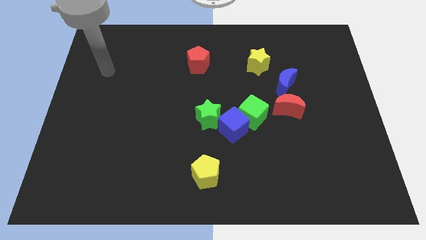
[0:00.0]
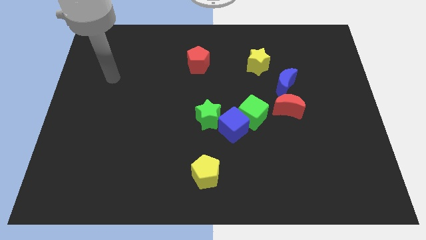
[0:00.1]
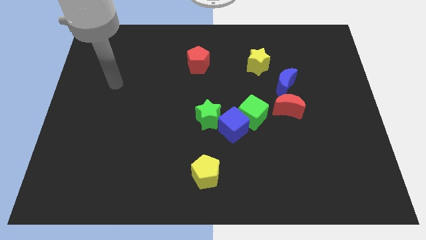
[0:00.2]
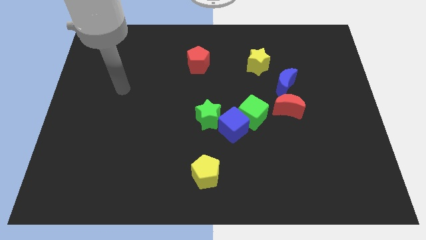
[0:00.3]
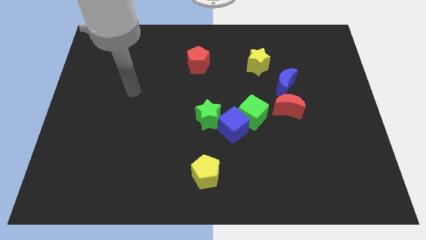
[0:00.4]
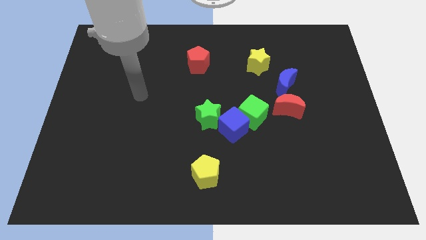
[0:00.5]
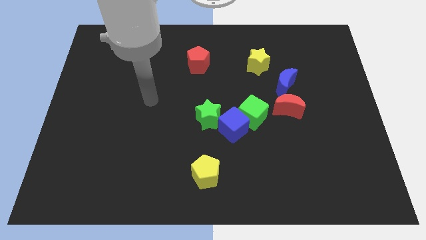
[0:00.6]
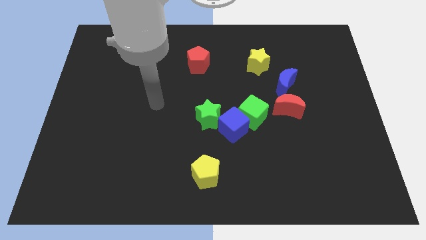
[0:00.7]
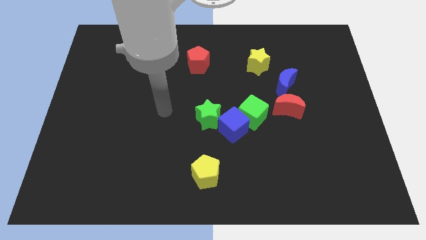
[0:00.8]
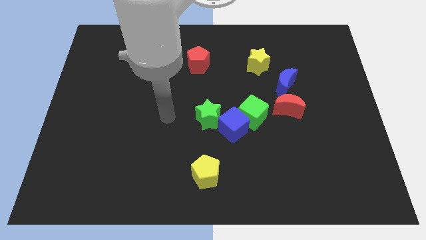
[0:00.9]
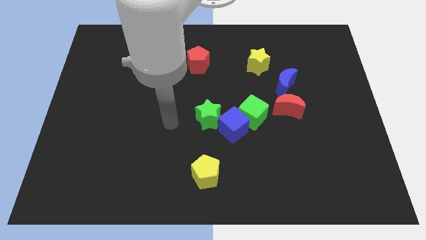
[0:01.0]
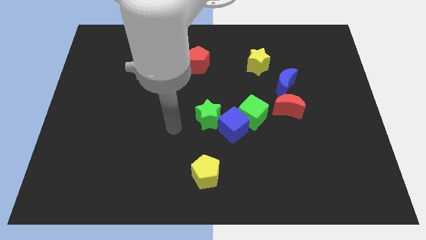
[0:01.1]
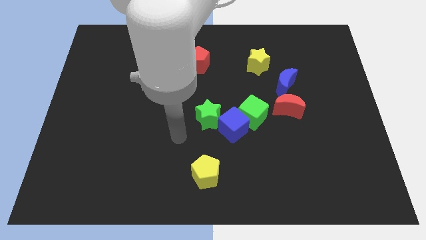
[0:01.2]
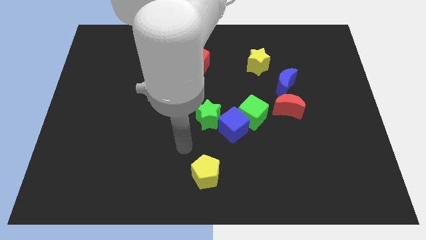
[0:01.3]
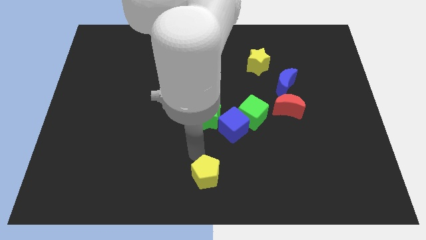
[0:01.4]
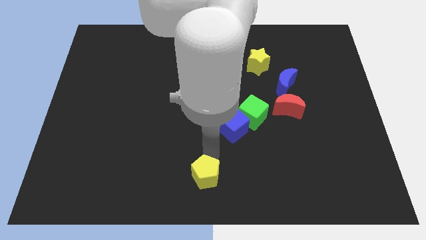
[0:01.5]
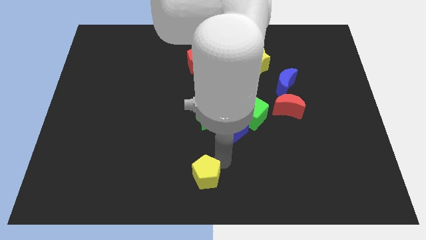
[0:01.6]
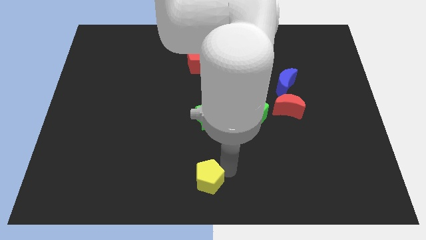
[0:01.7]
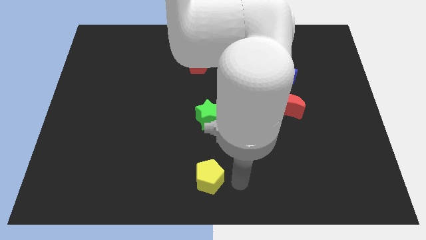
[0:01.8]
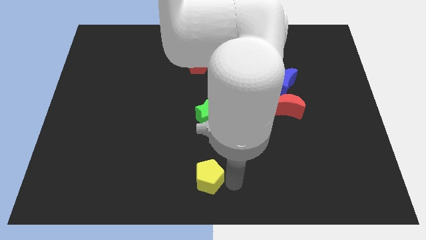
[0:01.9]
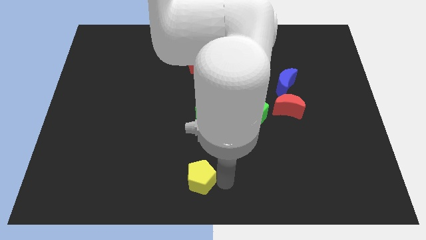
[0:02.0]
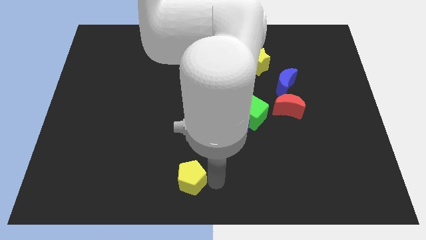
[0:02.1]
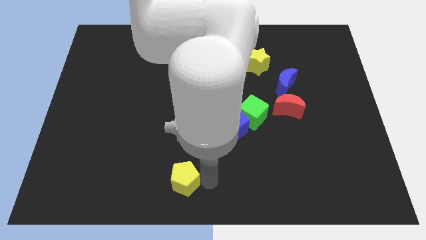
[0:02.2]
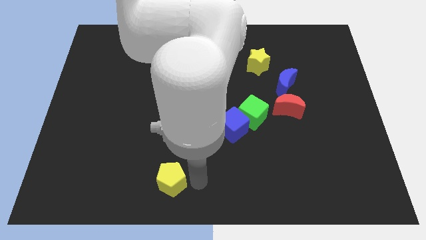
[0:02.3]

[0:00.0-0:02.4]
move the yellow pentagon a little left

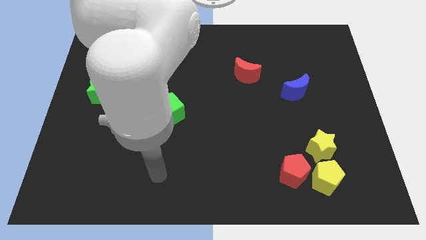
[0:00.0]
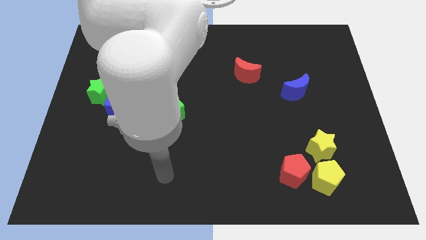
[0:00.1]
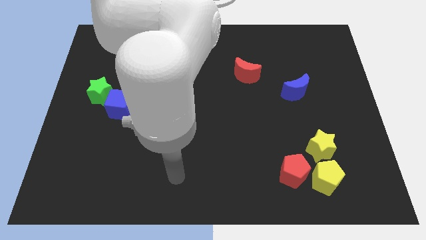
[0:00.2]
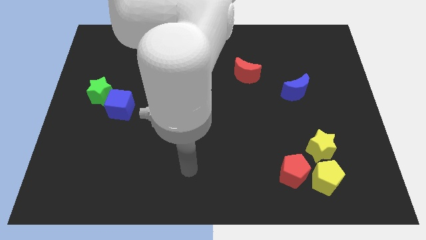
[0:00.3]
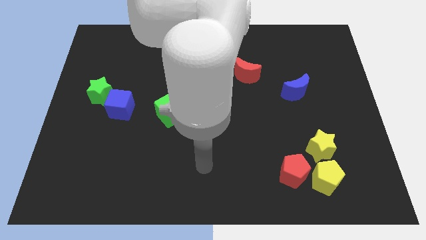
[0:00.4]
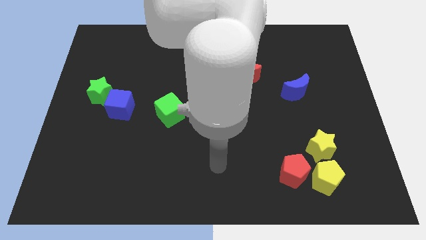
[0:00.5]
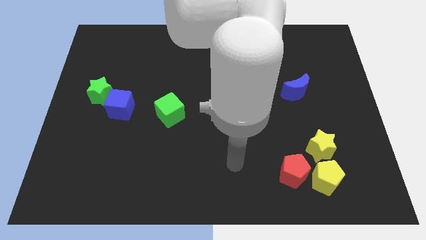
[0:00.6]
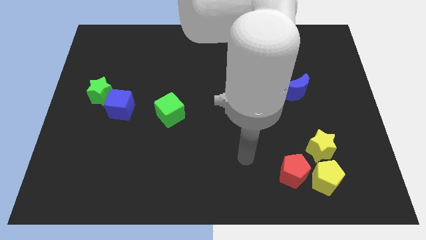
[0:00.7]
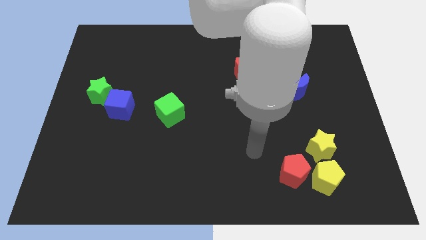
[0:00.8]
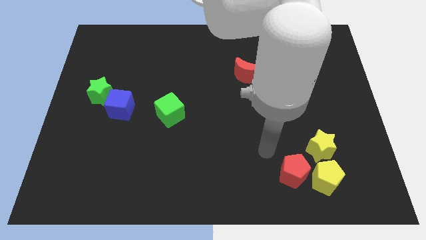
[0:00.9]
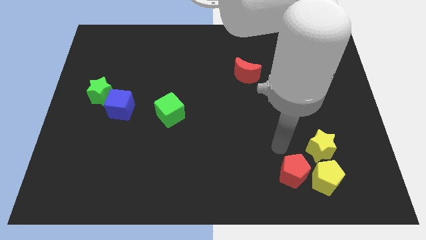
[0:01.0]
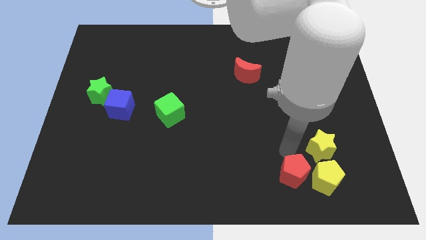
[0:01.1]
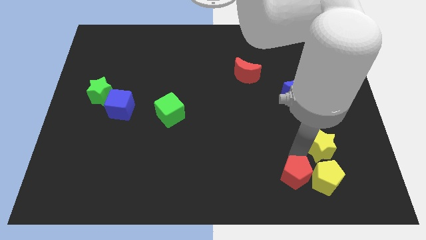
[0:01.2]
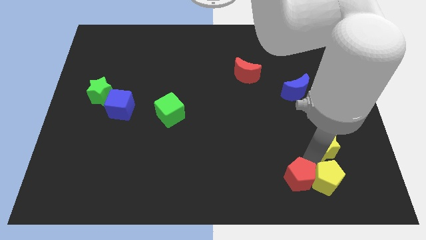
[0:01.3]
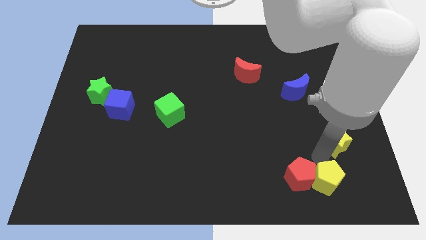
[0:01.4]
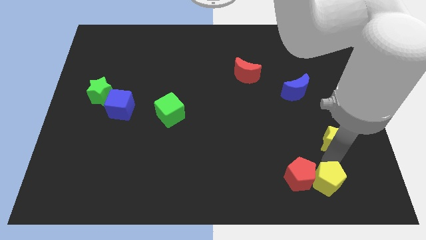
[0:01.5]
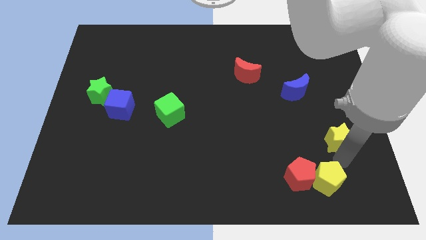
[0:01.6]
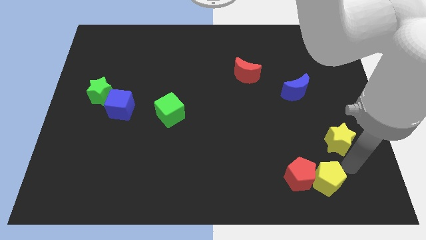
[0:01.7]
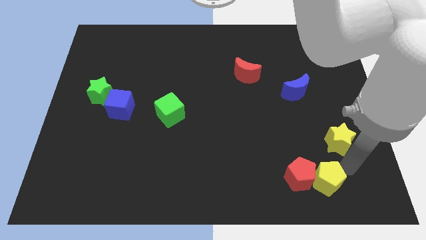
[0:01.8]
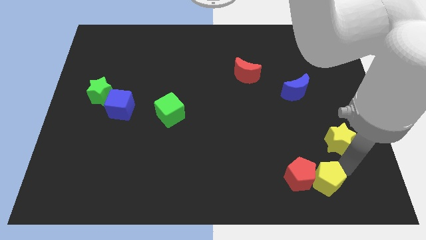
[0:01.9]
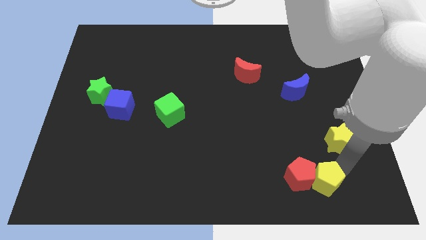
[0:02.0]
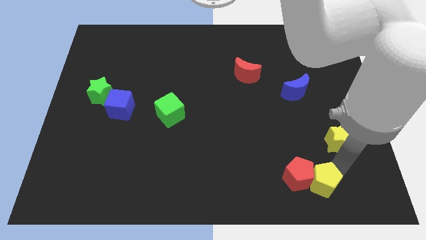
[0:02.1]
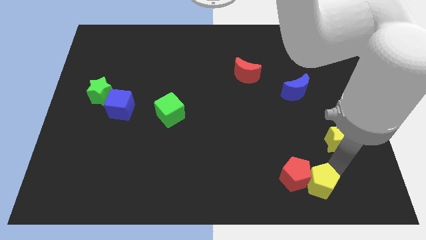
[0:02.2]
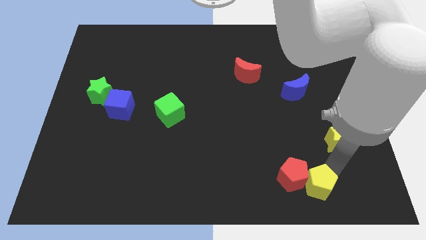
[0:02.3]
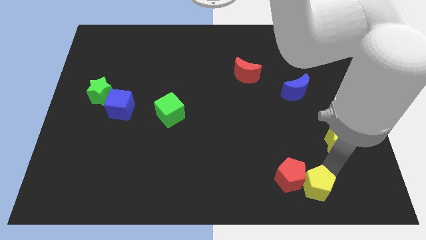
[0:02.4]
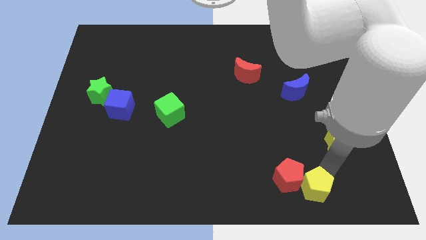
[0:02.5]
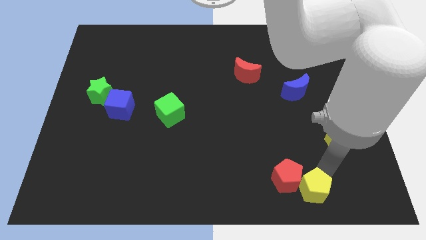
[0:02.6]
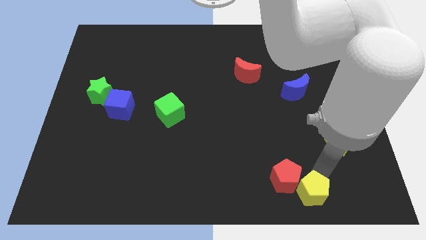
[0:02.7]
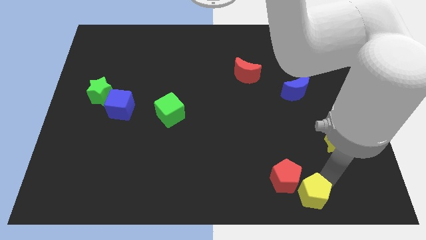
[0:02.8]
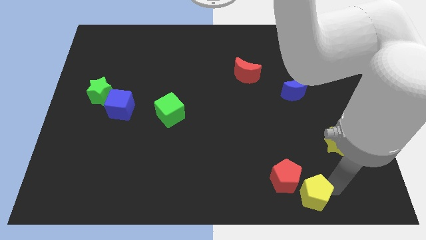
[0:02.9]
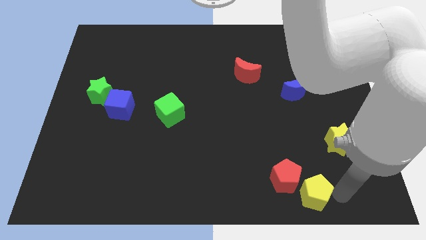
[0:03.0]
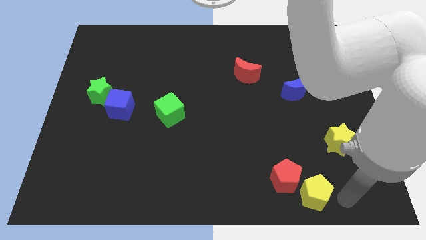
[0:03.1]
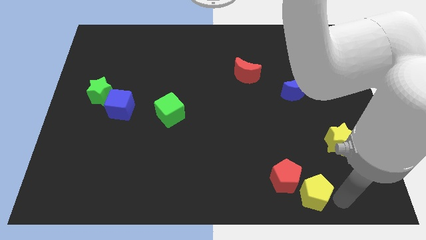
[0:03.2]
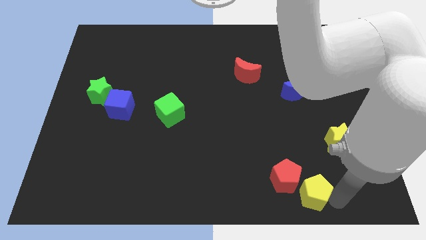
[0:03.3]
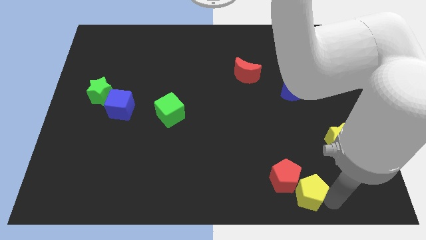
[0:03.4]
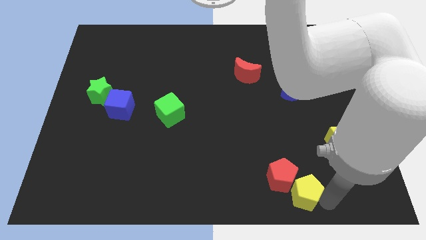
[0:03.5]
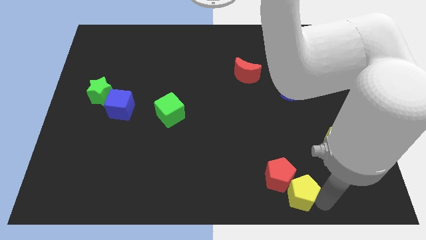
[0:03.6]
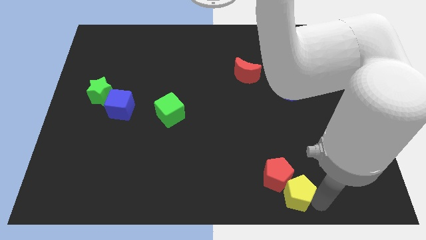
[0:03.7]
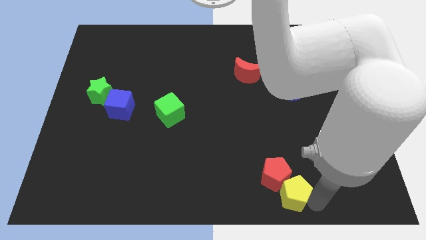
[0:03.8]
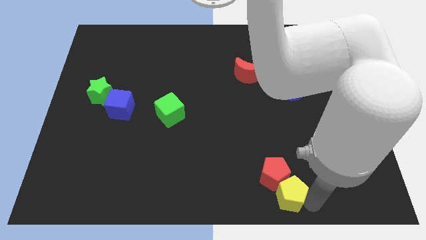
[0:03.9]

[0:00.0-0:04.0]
slightly move the yellow pentagon left

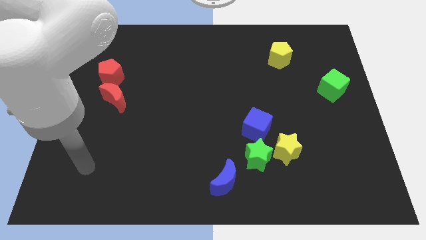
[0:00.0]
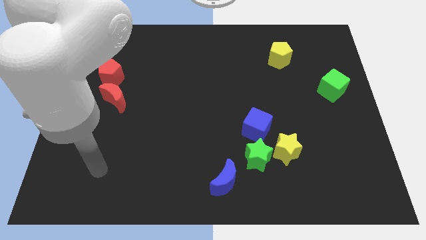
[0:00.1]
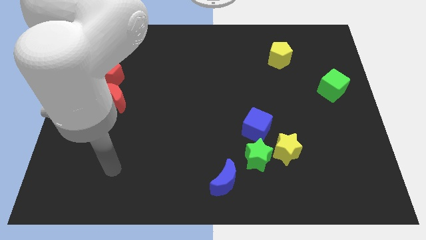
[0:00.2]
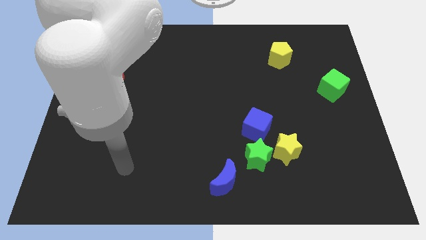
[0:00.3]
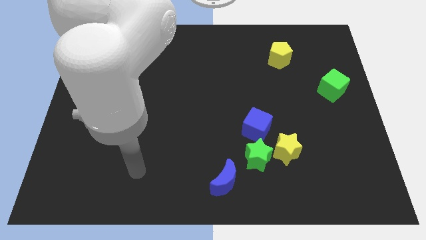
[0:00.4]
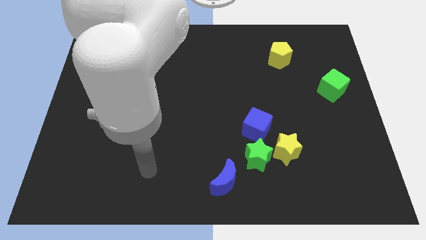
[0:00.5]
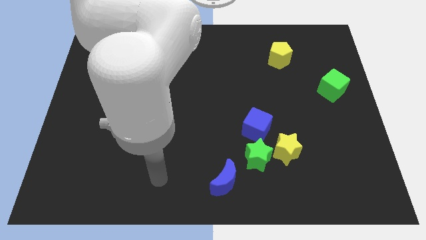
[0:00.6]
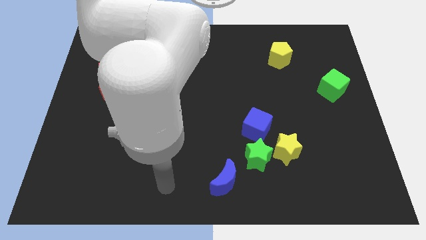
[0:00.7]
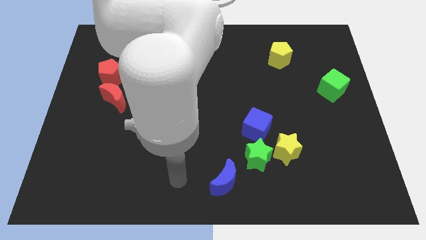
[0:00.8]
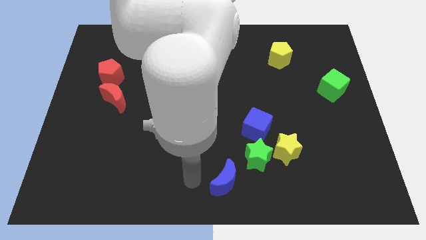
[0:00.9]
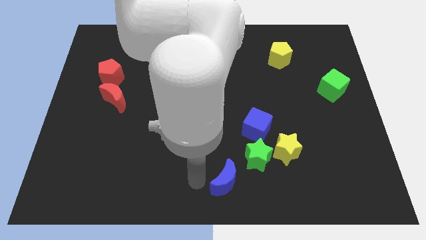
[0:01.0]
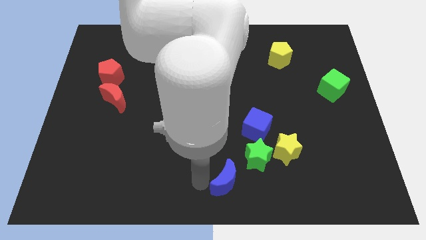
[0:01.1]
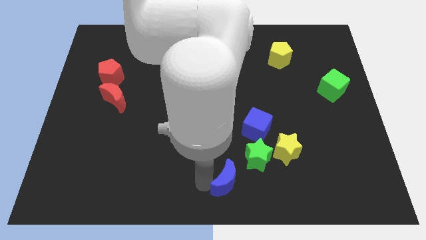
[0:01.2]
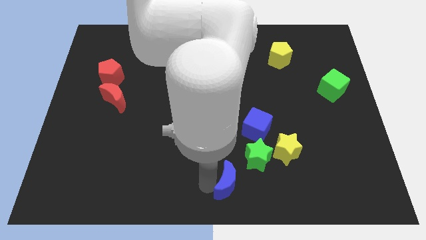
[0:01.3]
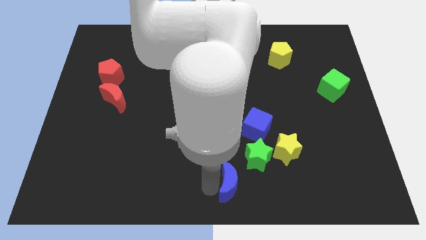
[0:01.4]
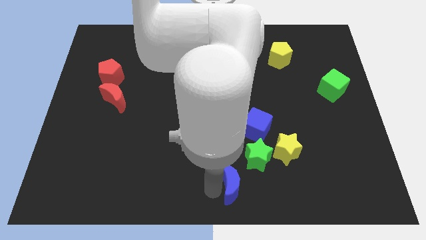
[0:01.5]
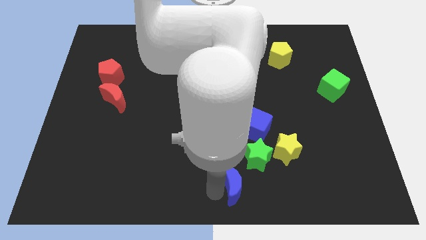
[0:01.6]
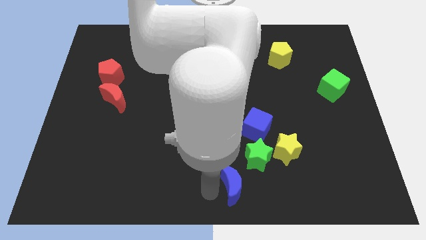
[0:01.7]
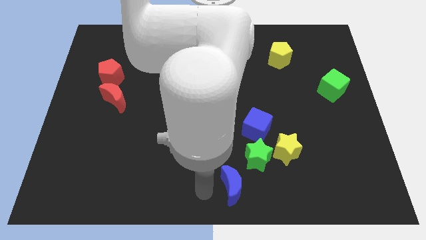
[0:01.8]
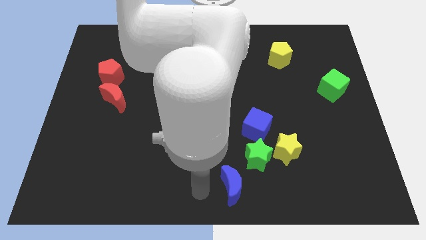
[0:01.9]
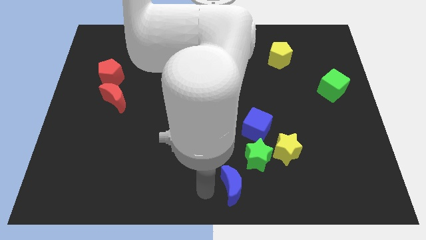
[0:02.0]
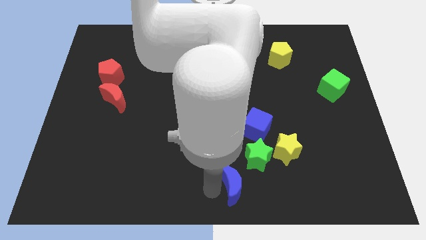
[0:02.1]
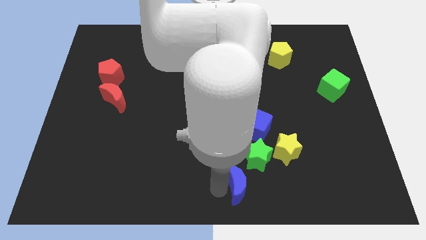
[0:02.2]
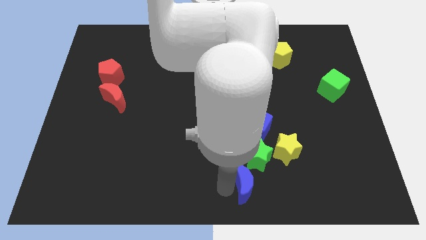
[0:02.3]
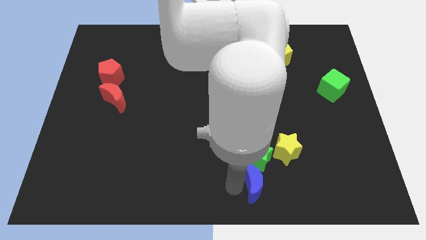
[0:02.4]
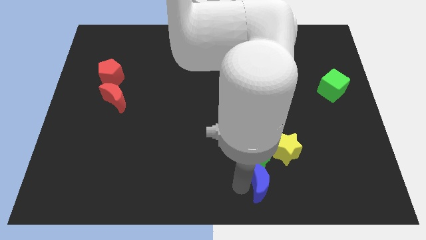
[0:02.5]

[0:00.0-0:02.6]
slide the blue moon slightly to the right
